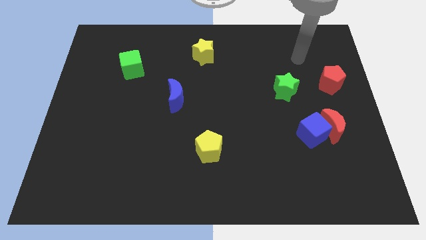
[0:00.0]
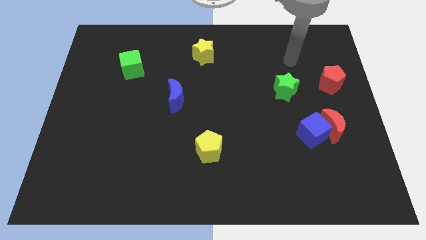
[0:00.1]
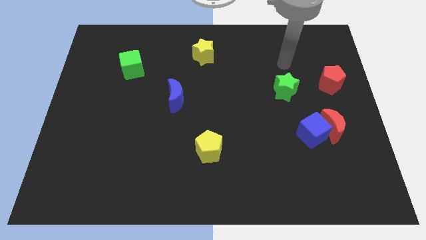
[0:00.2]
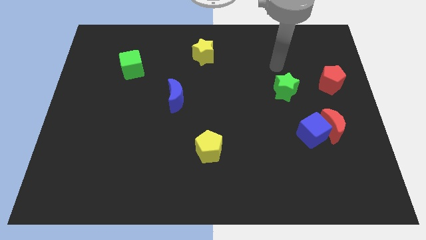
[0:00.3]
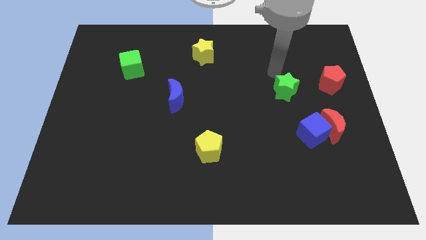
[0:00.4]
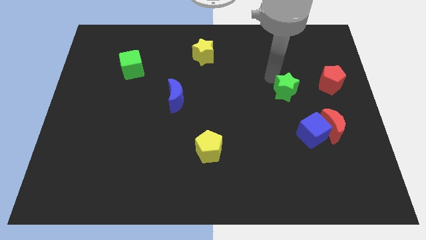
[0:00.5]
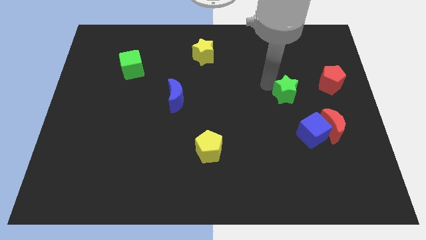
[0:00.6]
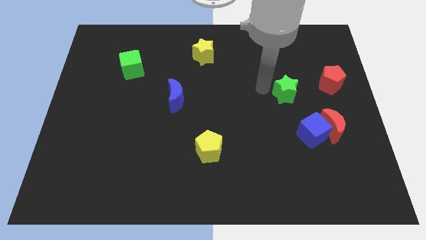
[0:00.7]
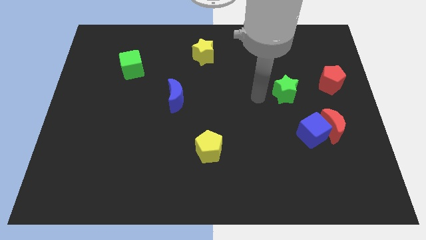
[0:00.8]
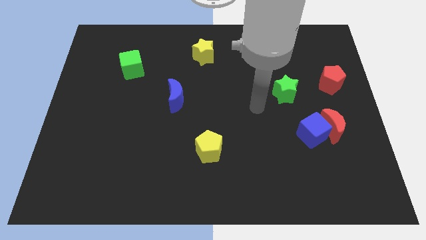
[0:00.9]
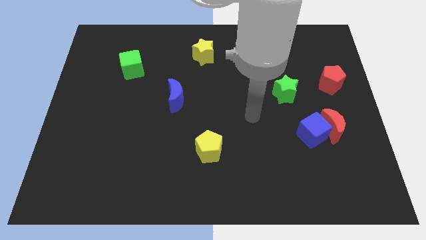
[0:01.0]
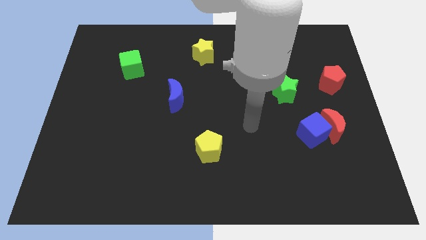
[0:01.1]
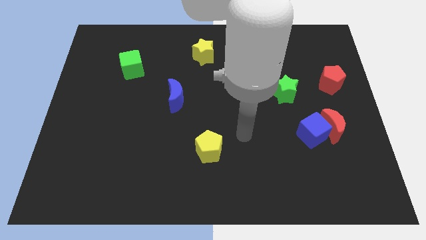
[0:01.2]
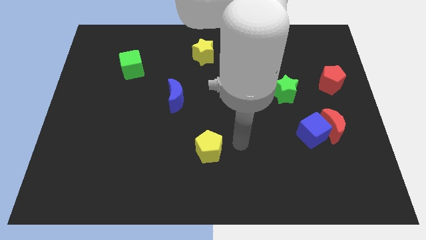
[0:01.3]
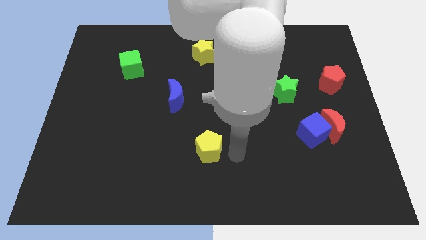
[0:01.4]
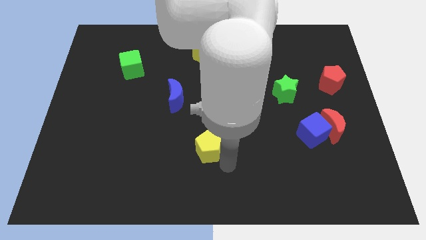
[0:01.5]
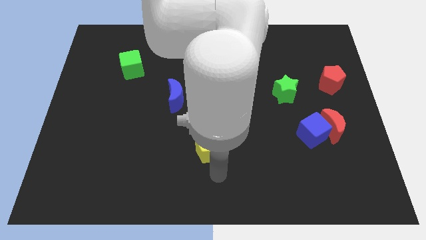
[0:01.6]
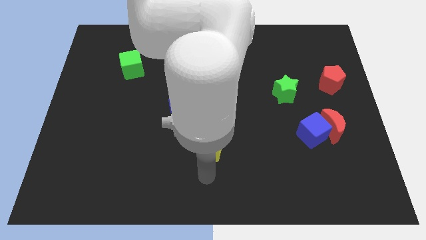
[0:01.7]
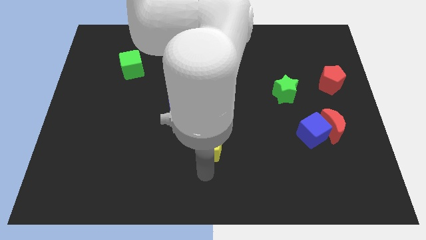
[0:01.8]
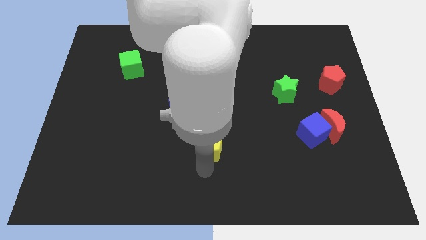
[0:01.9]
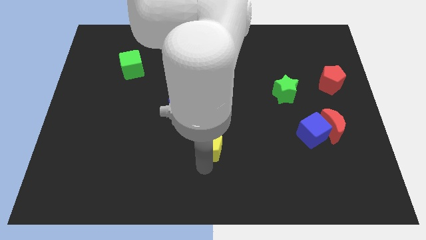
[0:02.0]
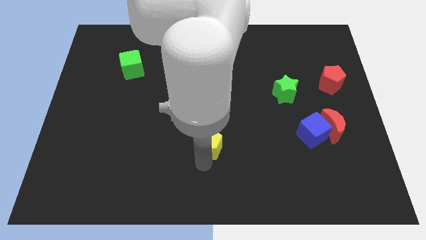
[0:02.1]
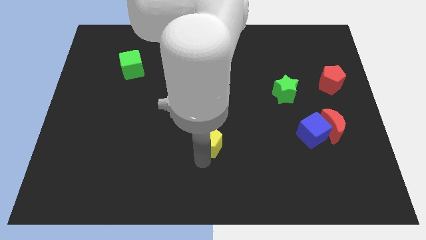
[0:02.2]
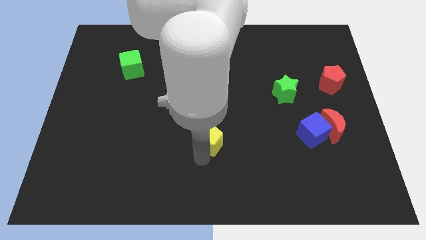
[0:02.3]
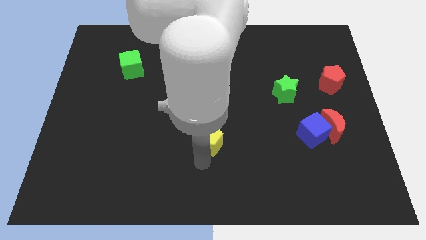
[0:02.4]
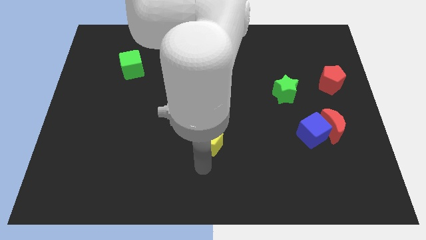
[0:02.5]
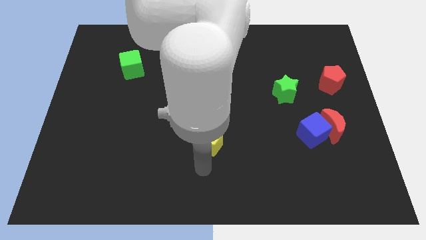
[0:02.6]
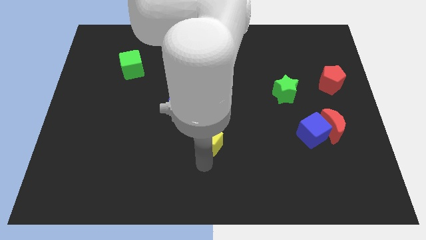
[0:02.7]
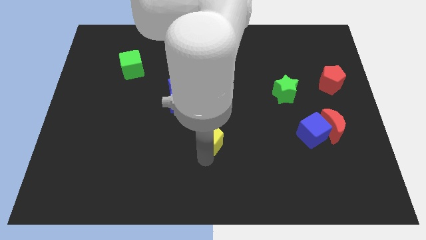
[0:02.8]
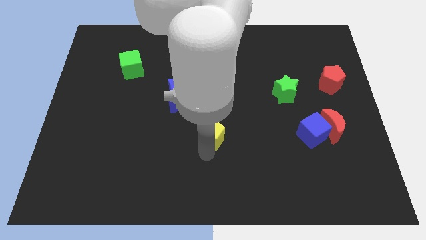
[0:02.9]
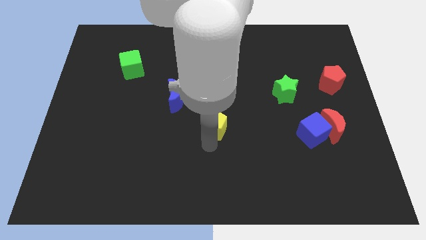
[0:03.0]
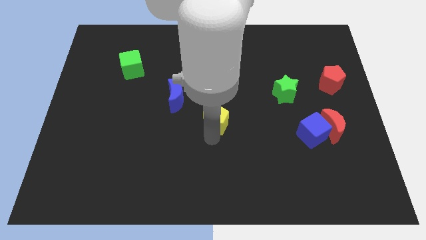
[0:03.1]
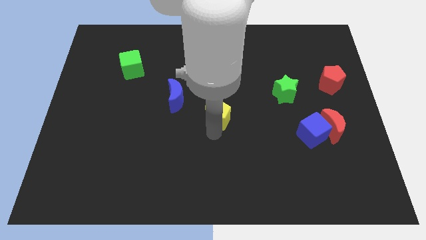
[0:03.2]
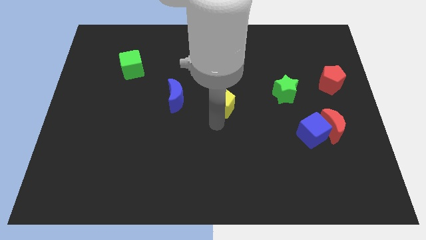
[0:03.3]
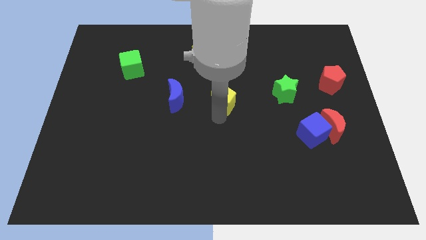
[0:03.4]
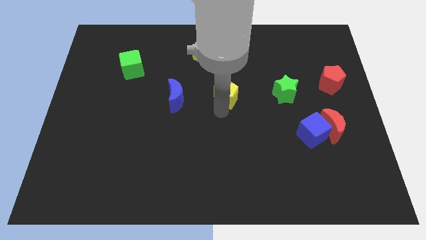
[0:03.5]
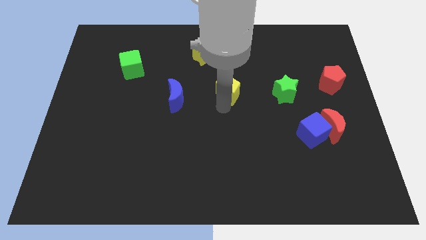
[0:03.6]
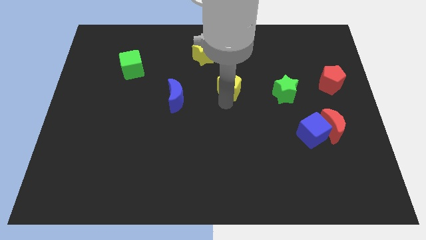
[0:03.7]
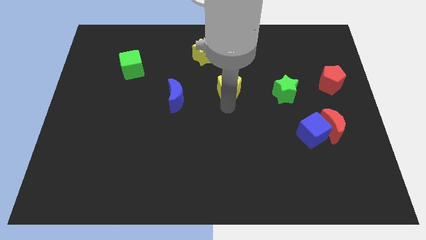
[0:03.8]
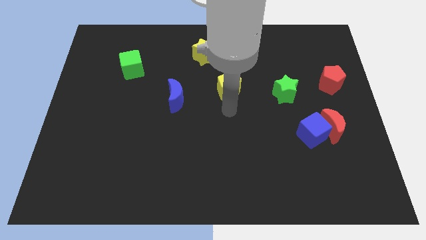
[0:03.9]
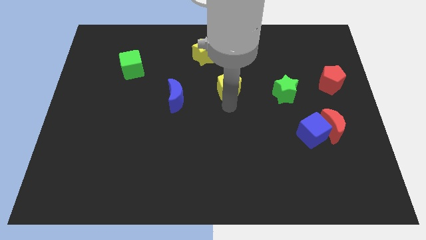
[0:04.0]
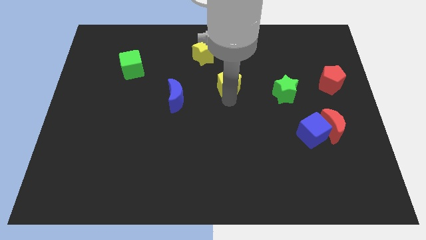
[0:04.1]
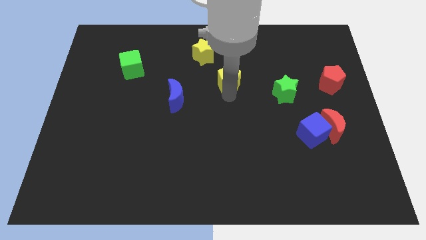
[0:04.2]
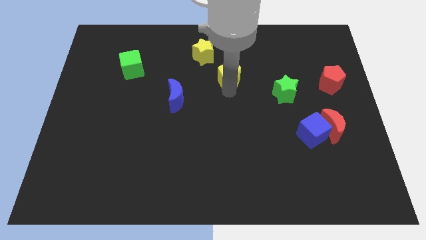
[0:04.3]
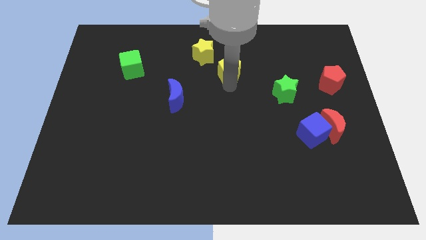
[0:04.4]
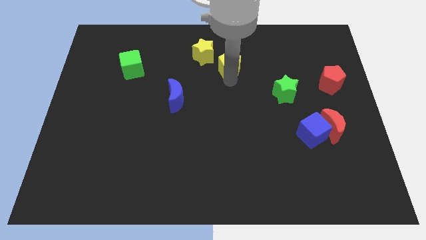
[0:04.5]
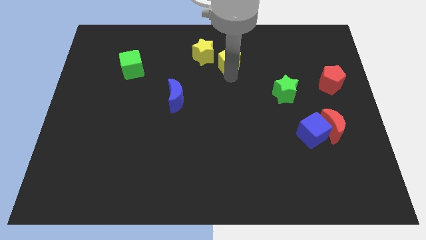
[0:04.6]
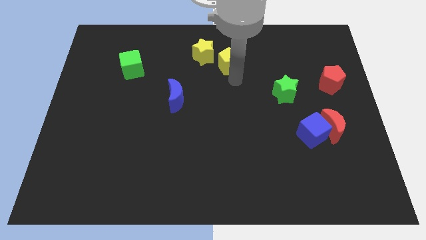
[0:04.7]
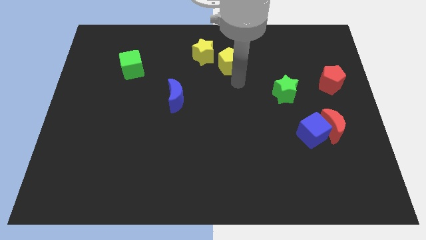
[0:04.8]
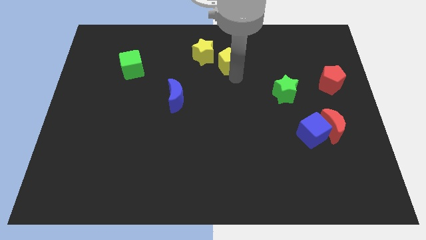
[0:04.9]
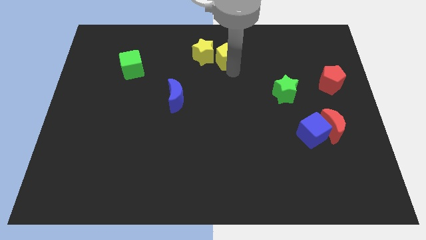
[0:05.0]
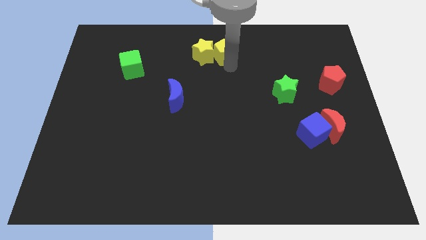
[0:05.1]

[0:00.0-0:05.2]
slide the yellow pentagon to the top side

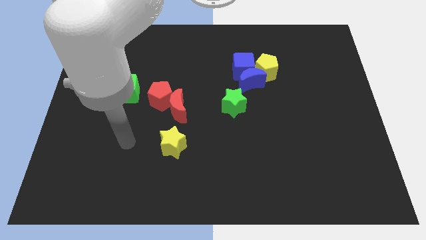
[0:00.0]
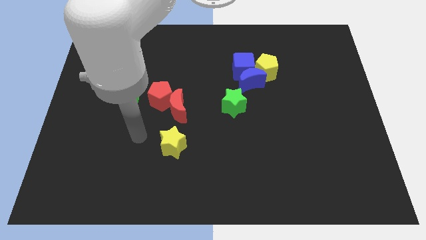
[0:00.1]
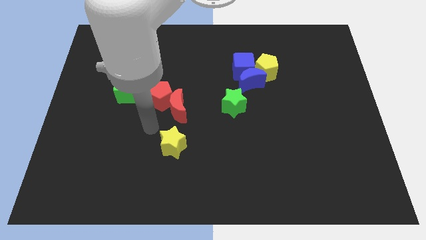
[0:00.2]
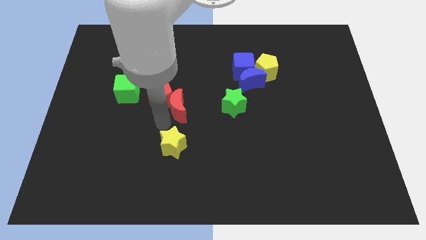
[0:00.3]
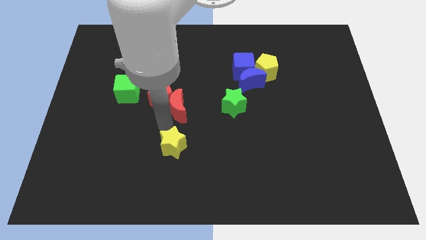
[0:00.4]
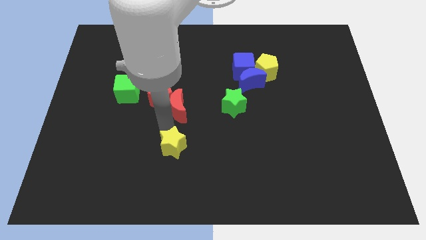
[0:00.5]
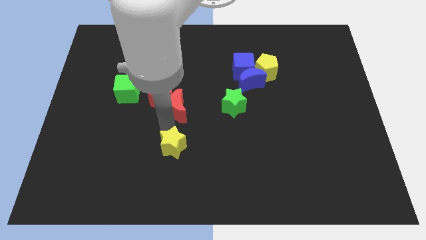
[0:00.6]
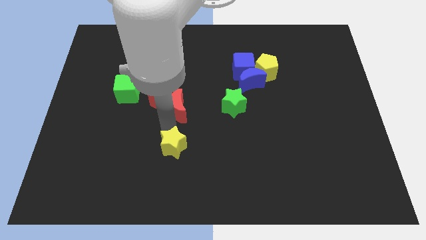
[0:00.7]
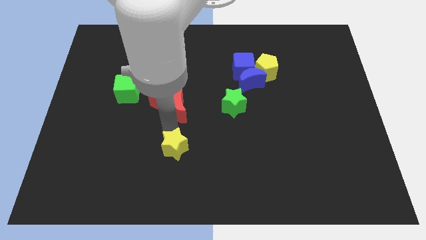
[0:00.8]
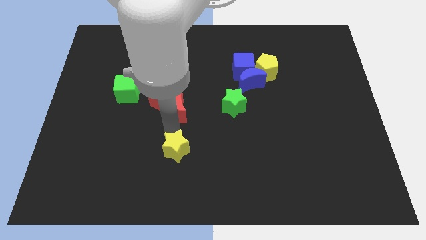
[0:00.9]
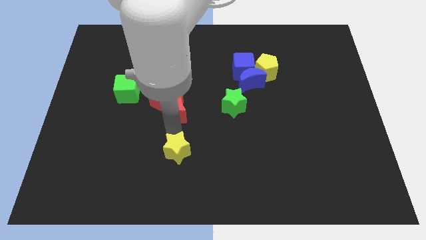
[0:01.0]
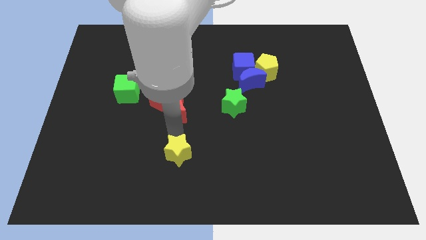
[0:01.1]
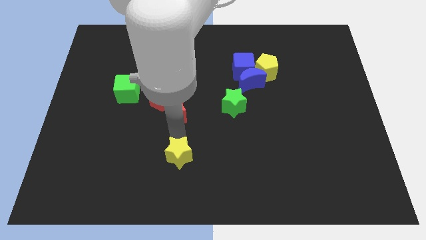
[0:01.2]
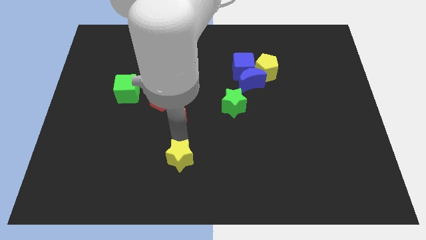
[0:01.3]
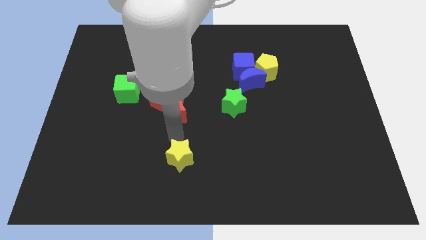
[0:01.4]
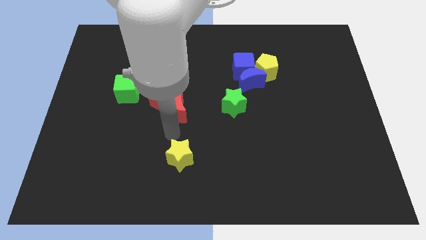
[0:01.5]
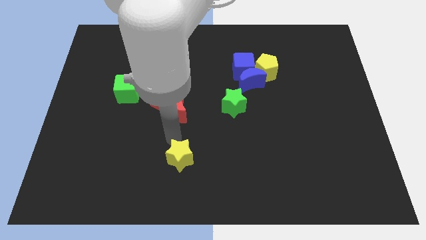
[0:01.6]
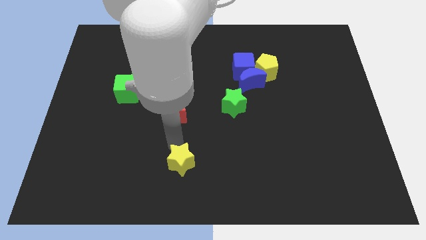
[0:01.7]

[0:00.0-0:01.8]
push the yellow star to the bottom
